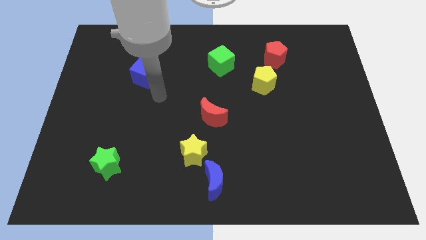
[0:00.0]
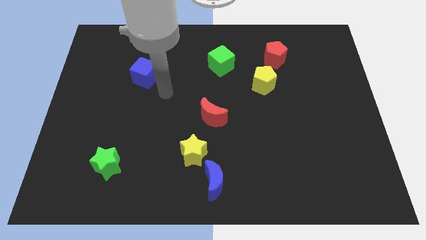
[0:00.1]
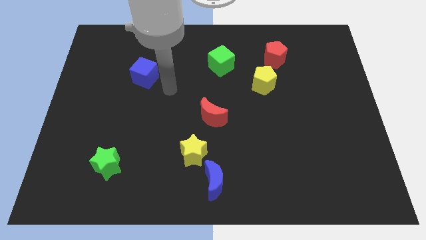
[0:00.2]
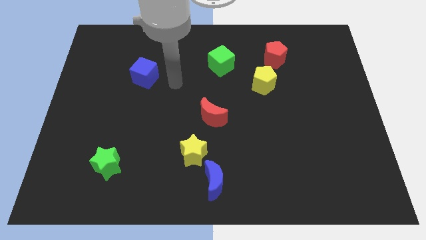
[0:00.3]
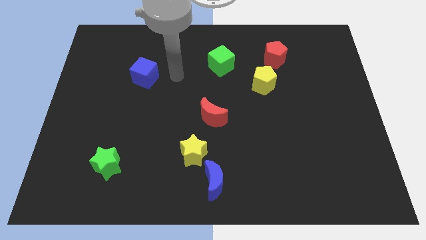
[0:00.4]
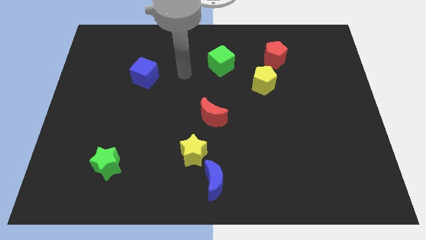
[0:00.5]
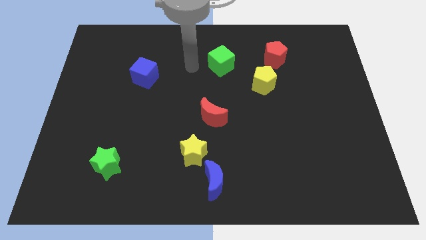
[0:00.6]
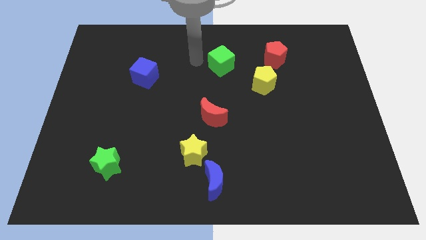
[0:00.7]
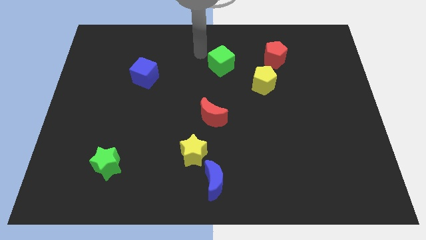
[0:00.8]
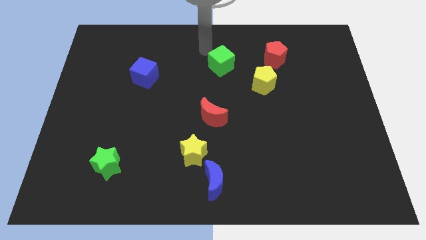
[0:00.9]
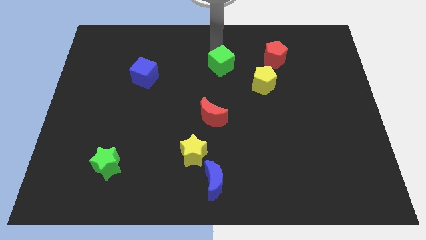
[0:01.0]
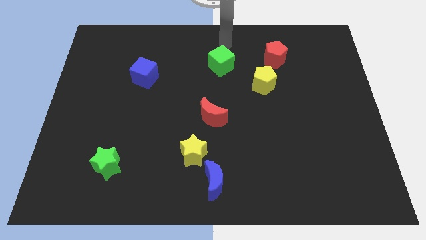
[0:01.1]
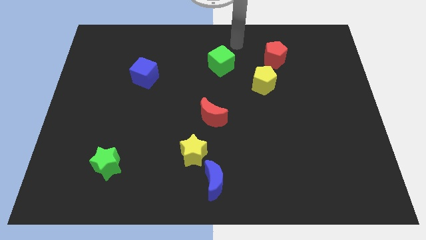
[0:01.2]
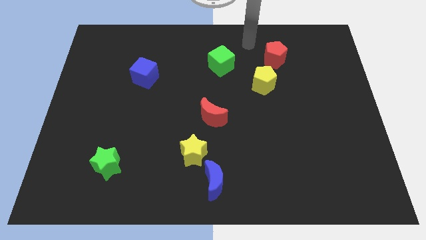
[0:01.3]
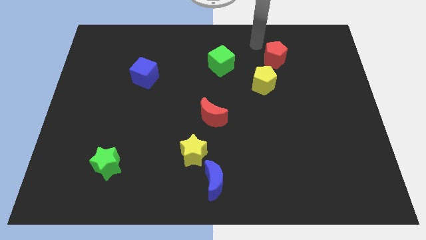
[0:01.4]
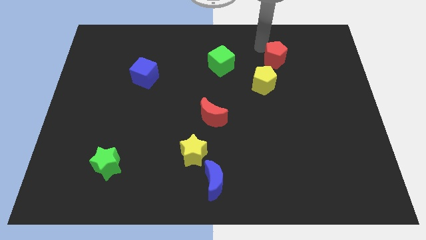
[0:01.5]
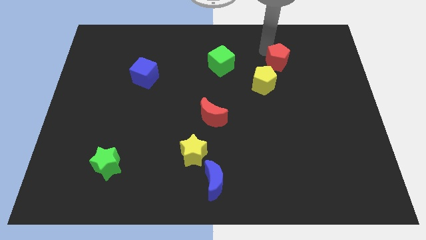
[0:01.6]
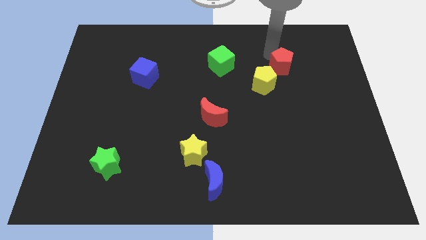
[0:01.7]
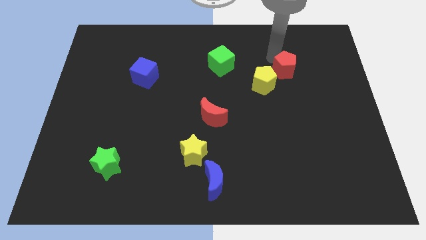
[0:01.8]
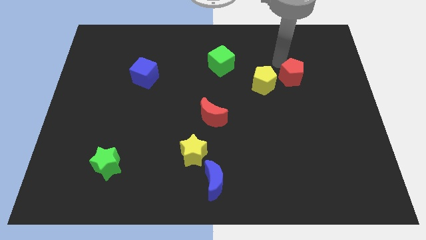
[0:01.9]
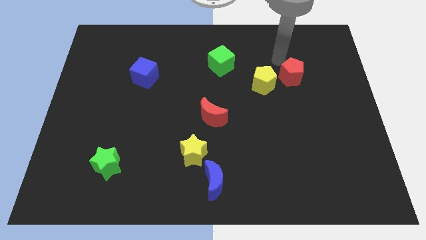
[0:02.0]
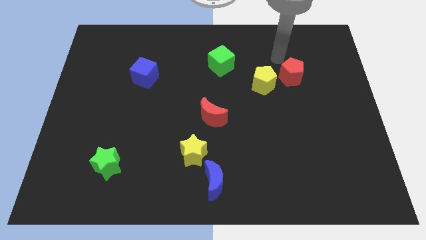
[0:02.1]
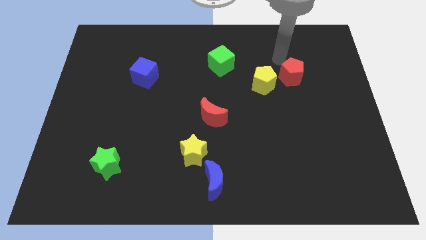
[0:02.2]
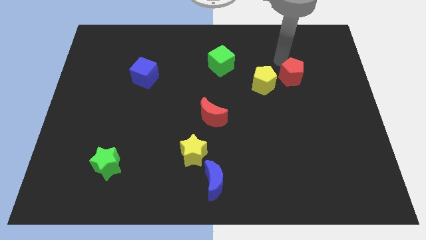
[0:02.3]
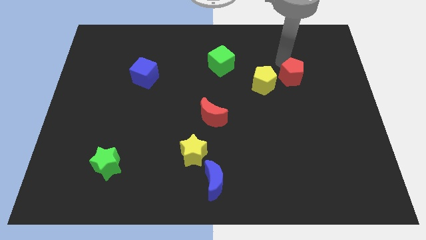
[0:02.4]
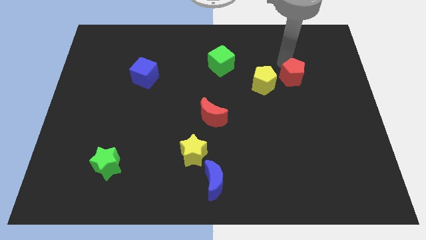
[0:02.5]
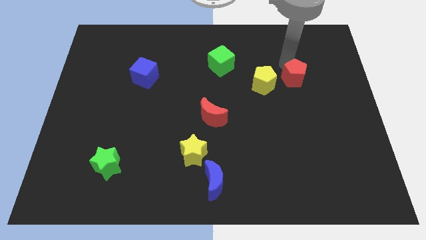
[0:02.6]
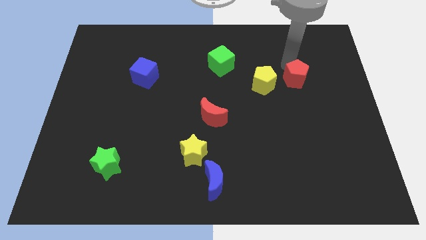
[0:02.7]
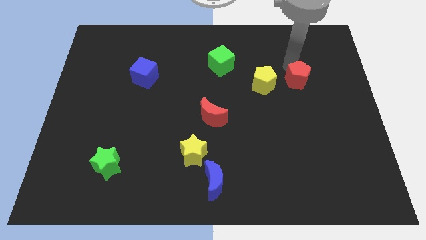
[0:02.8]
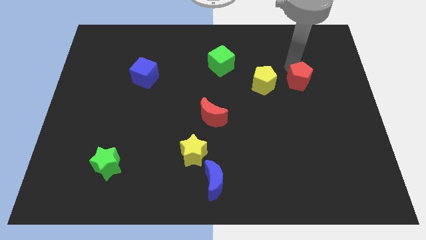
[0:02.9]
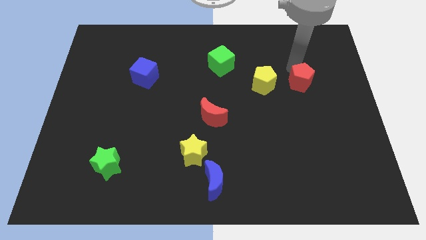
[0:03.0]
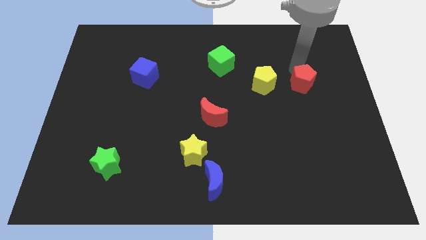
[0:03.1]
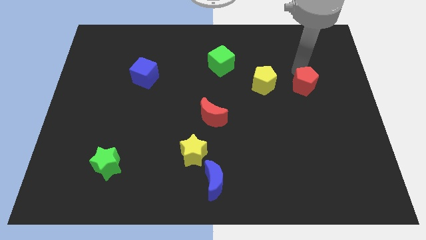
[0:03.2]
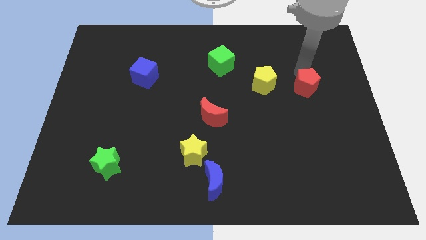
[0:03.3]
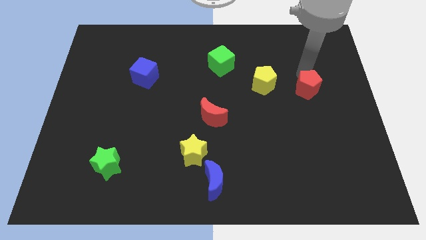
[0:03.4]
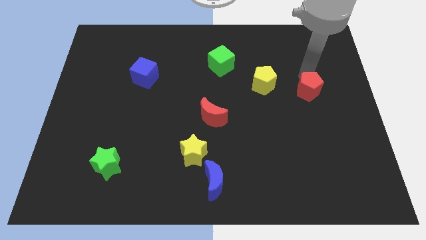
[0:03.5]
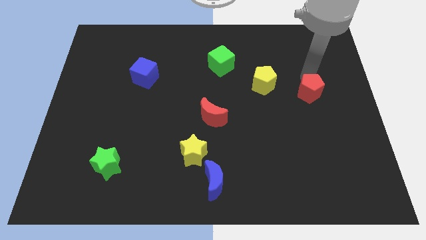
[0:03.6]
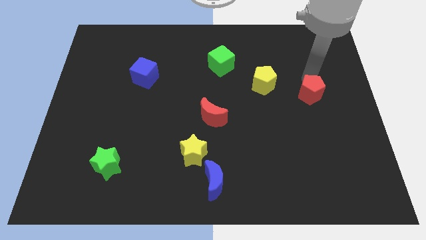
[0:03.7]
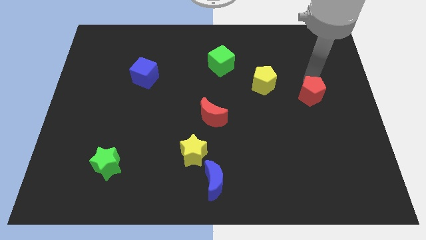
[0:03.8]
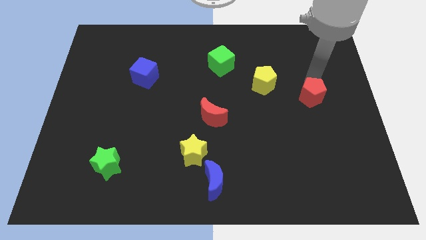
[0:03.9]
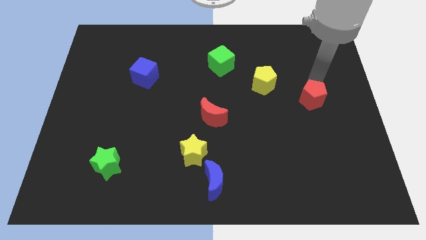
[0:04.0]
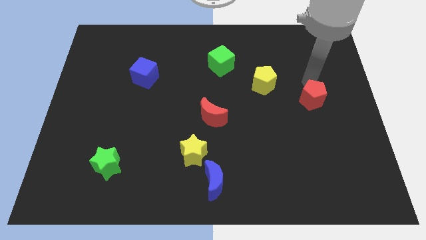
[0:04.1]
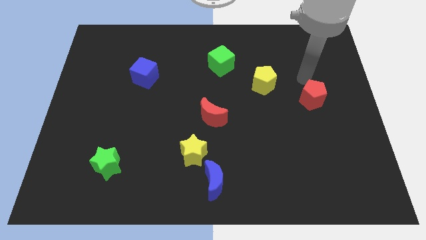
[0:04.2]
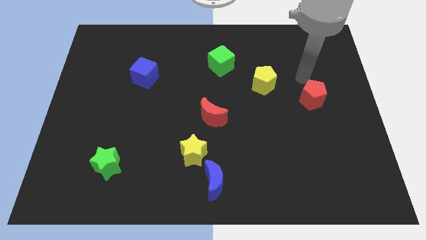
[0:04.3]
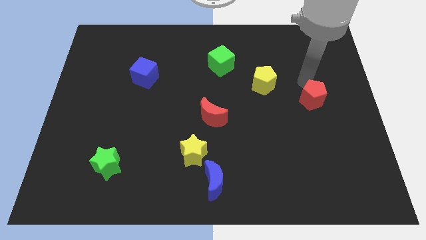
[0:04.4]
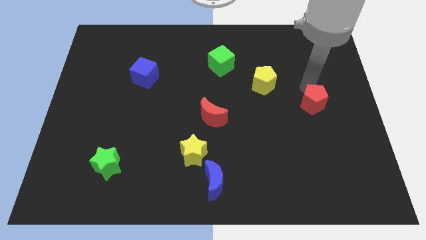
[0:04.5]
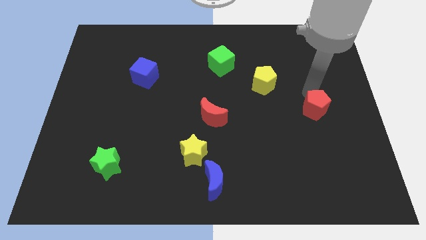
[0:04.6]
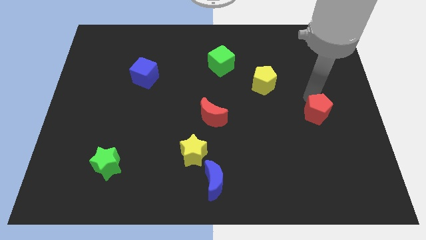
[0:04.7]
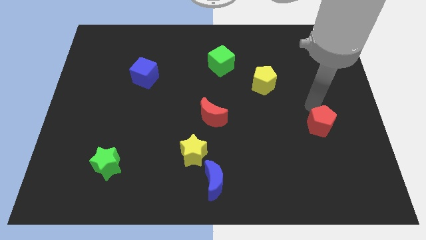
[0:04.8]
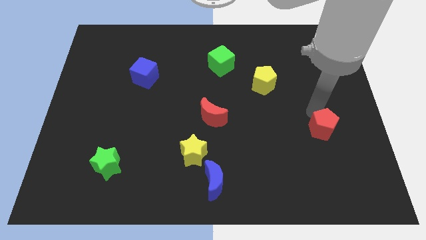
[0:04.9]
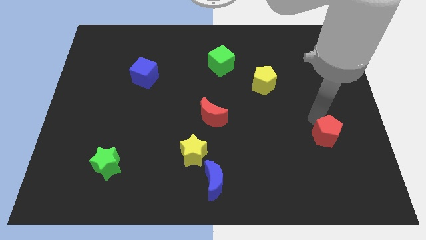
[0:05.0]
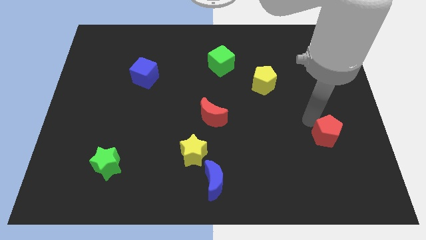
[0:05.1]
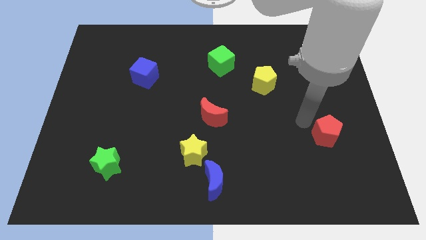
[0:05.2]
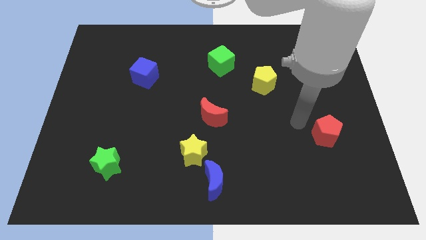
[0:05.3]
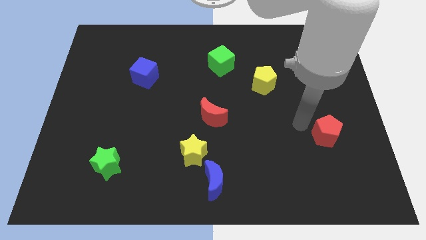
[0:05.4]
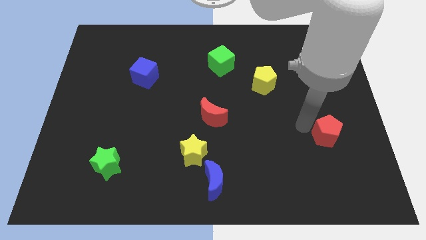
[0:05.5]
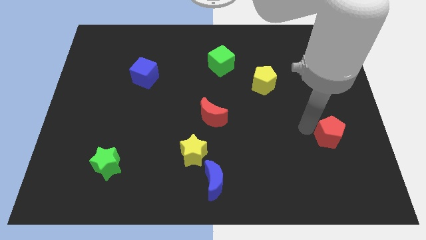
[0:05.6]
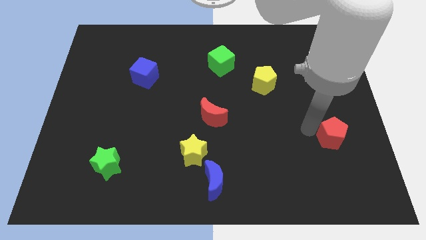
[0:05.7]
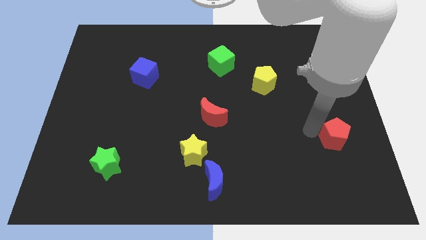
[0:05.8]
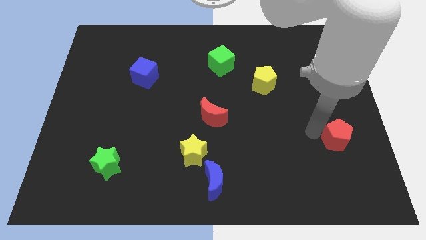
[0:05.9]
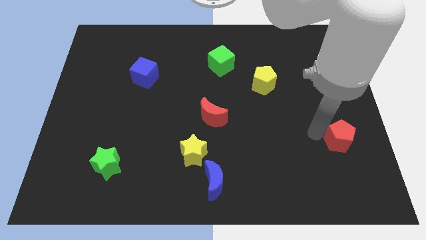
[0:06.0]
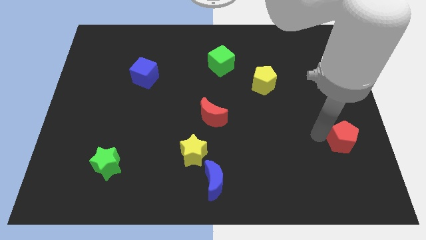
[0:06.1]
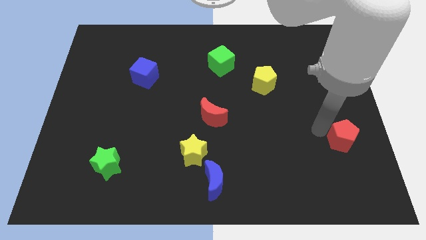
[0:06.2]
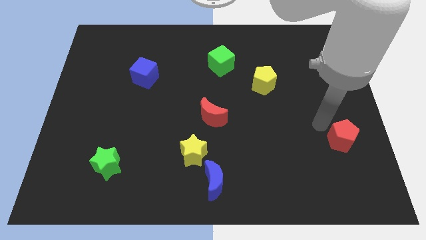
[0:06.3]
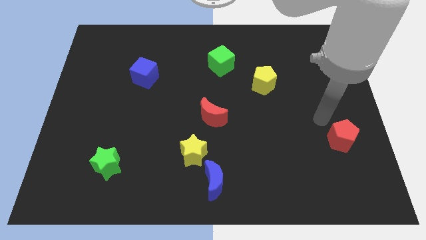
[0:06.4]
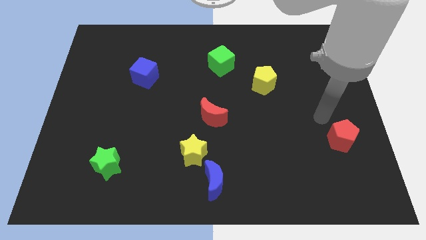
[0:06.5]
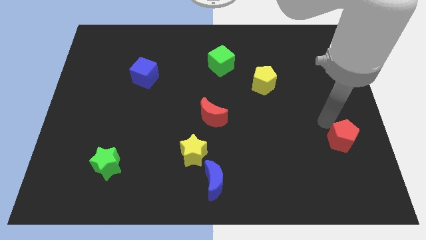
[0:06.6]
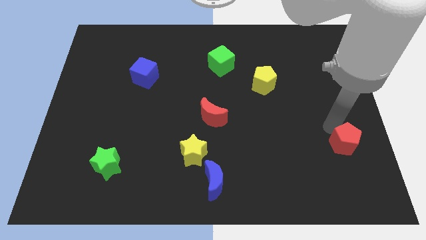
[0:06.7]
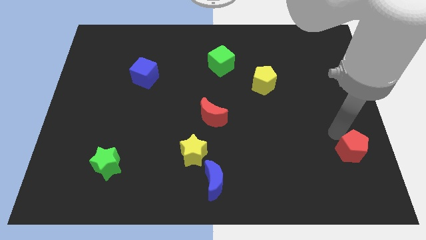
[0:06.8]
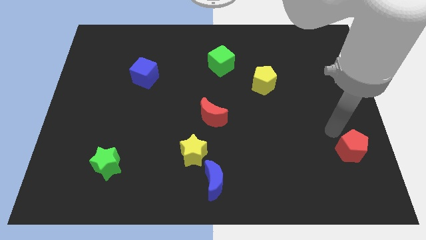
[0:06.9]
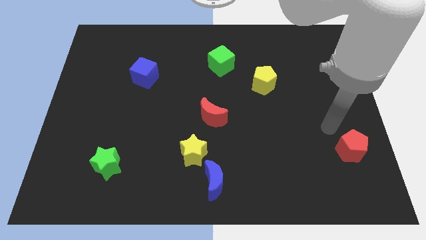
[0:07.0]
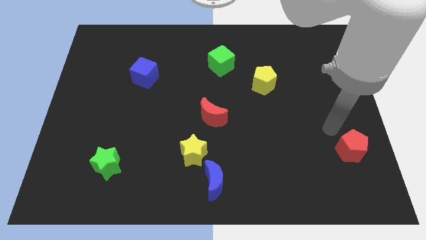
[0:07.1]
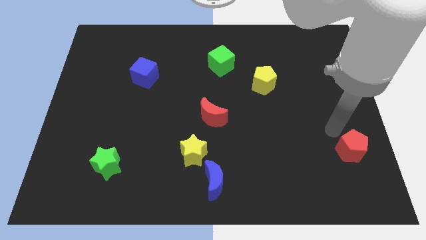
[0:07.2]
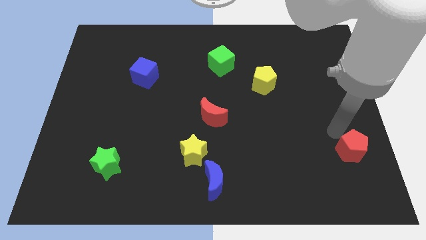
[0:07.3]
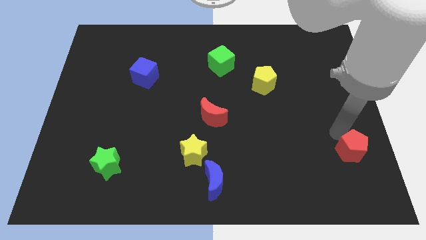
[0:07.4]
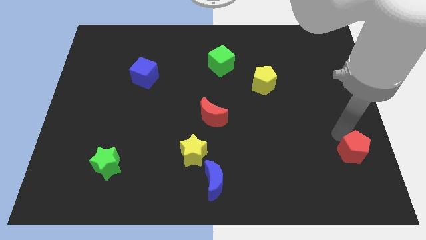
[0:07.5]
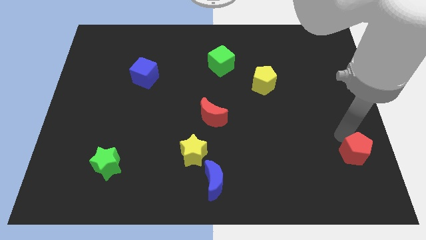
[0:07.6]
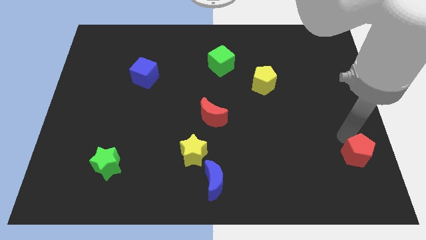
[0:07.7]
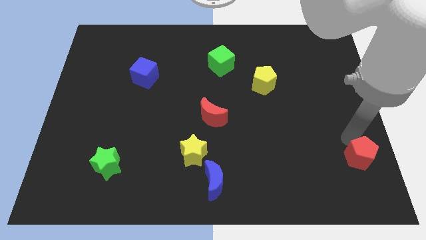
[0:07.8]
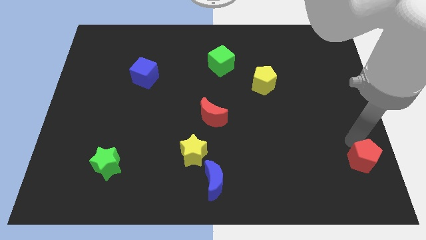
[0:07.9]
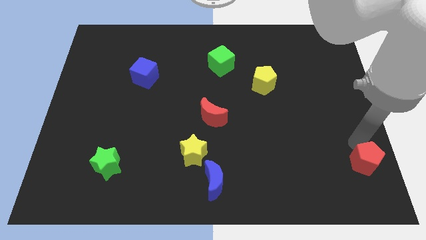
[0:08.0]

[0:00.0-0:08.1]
move the red pentagon to the bottom right
